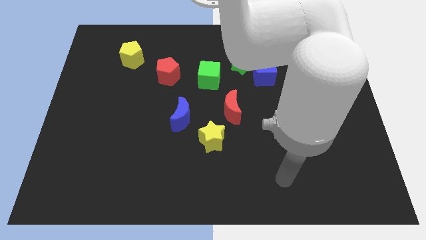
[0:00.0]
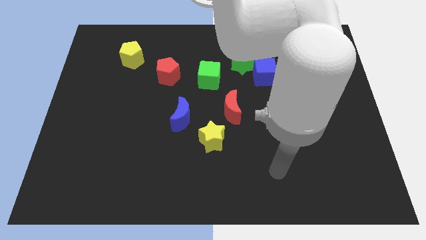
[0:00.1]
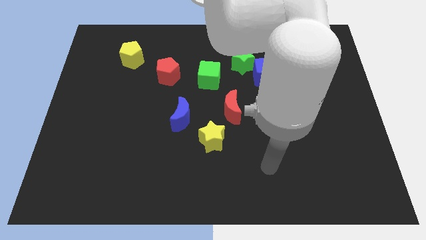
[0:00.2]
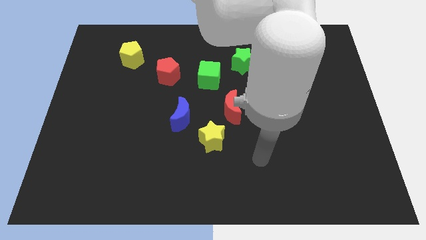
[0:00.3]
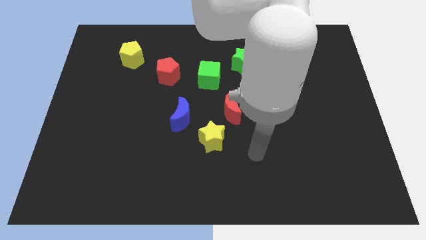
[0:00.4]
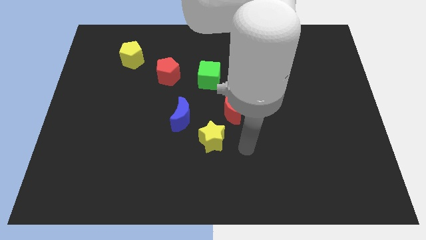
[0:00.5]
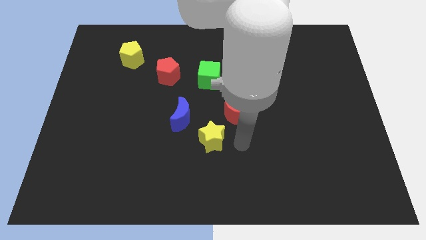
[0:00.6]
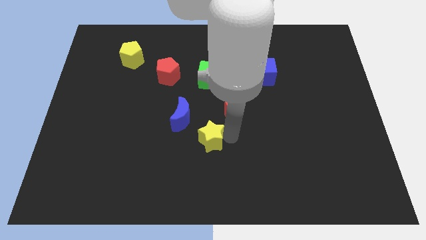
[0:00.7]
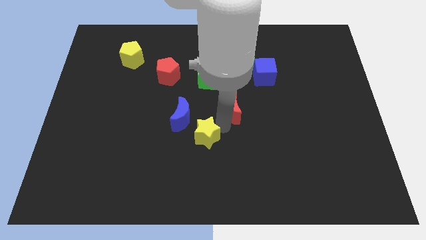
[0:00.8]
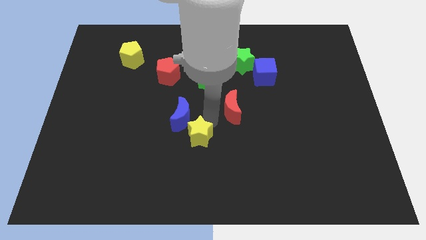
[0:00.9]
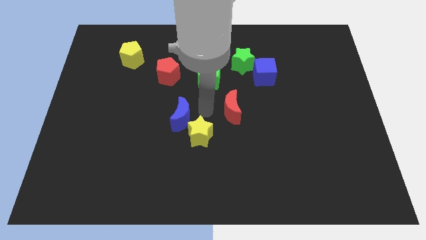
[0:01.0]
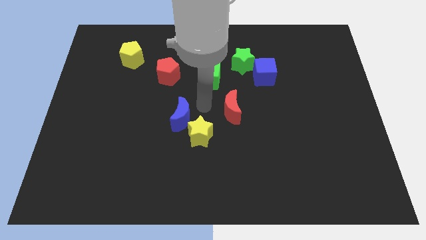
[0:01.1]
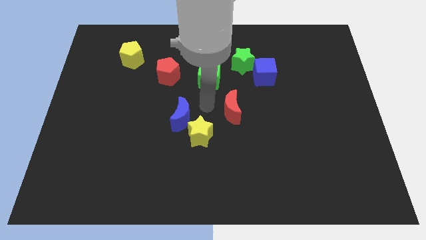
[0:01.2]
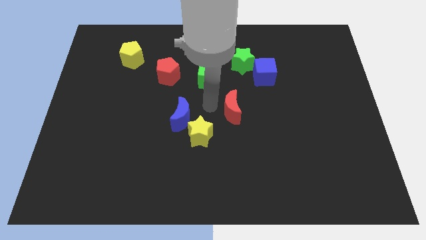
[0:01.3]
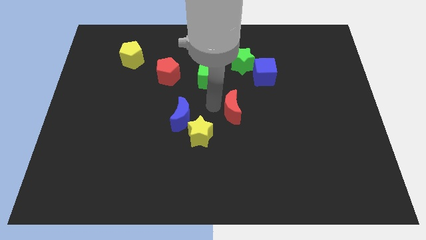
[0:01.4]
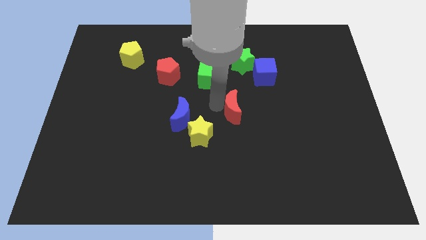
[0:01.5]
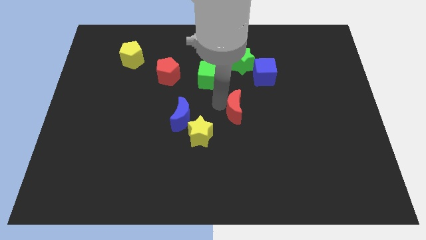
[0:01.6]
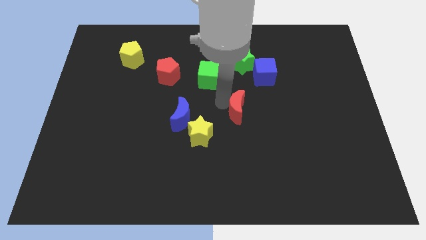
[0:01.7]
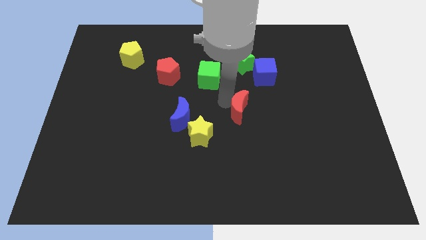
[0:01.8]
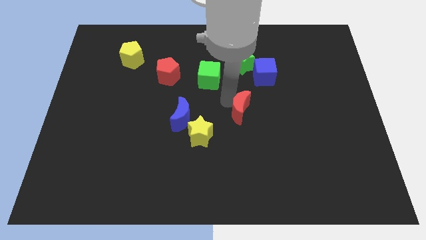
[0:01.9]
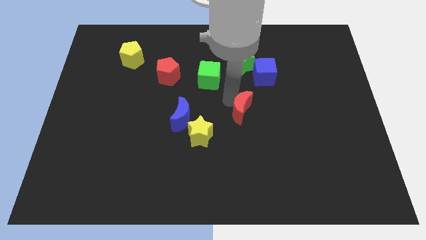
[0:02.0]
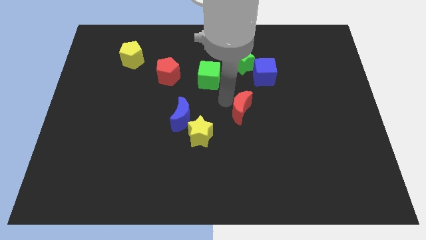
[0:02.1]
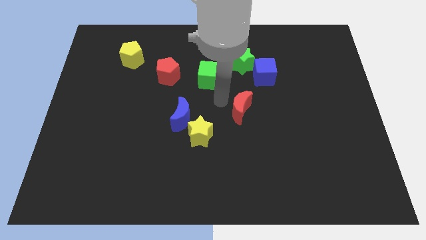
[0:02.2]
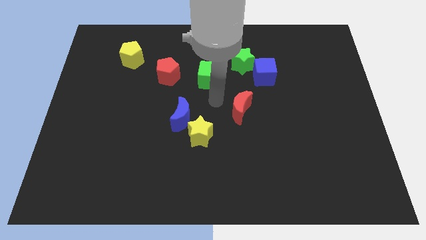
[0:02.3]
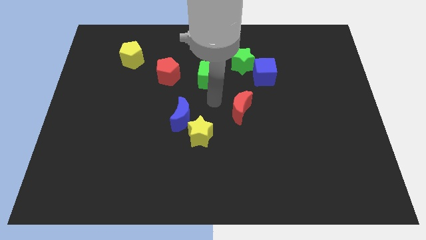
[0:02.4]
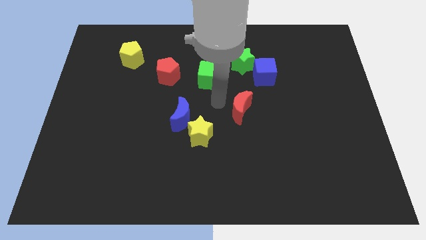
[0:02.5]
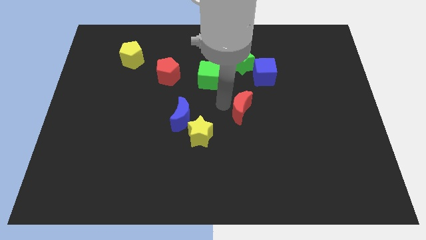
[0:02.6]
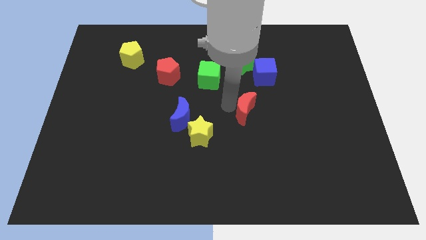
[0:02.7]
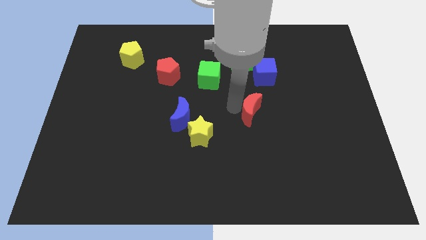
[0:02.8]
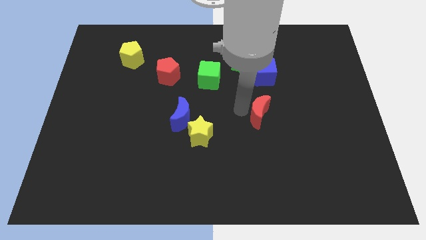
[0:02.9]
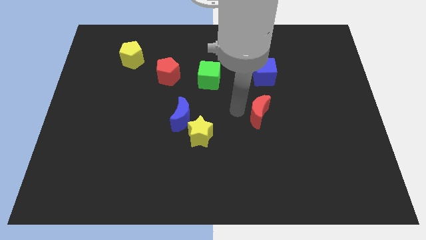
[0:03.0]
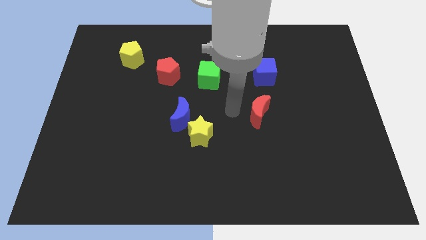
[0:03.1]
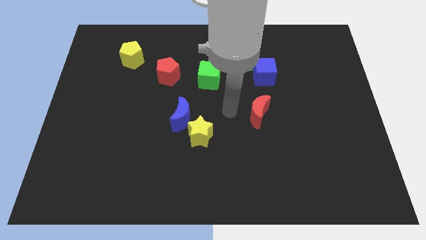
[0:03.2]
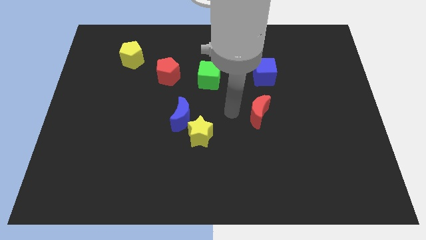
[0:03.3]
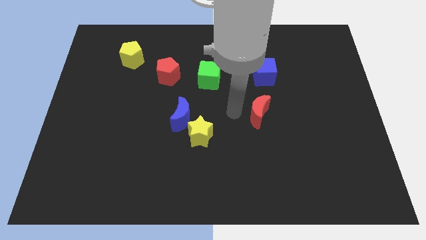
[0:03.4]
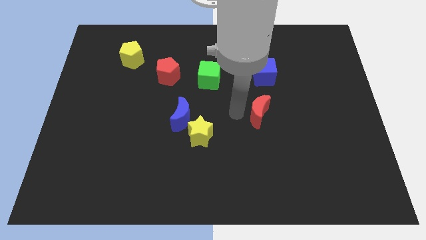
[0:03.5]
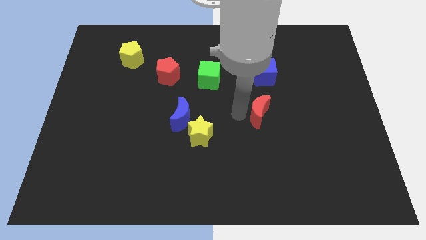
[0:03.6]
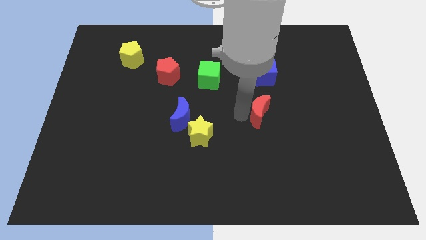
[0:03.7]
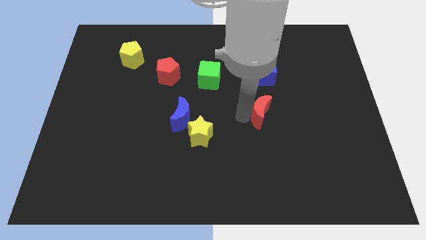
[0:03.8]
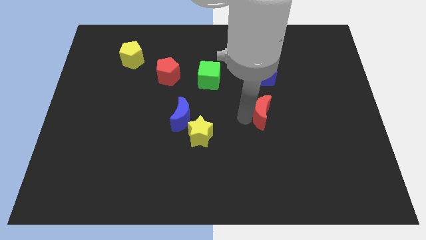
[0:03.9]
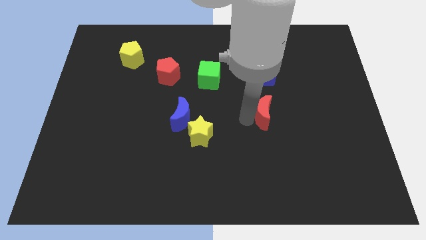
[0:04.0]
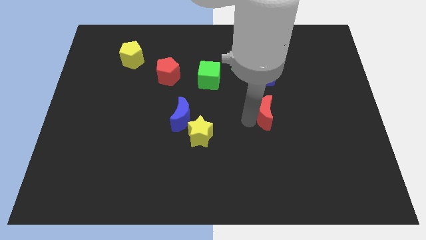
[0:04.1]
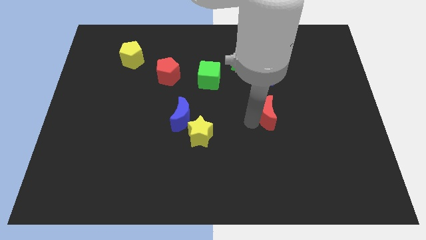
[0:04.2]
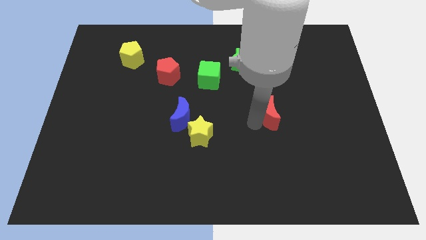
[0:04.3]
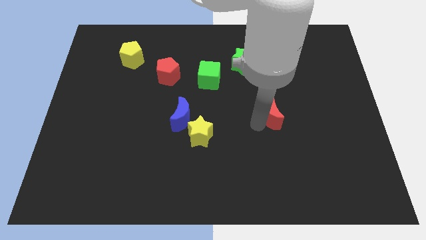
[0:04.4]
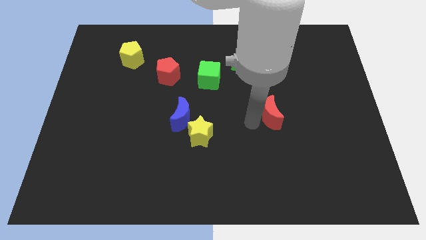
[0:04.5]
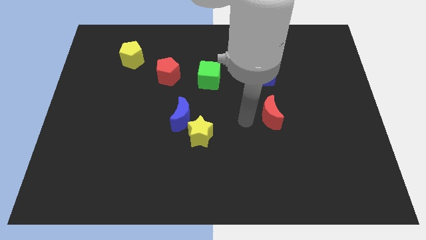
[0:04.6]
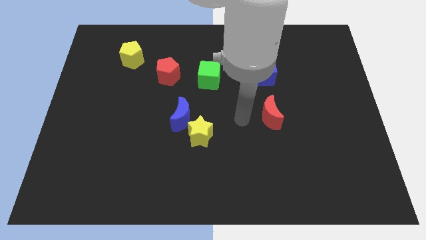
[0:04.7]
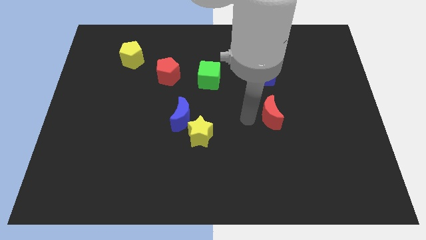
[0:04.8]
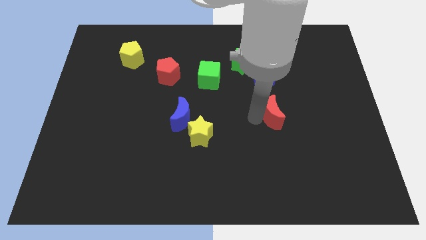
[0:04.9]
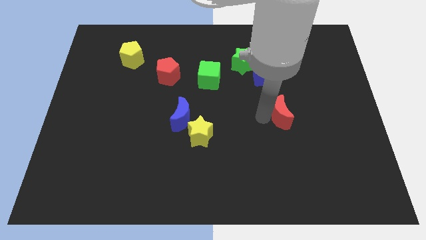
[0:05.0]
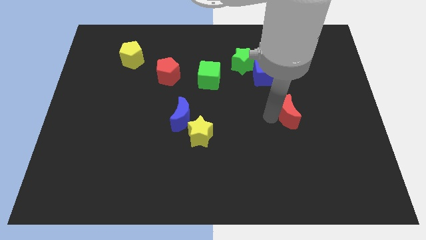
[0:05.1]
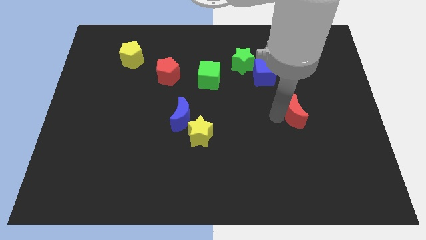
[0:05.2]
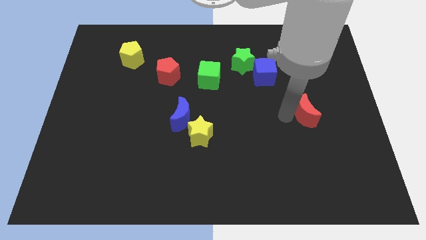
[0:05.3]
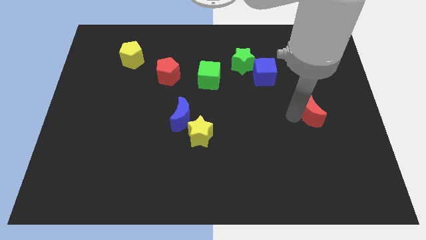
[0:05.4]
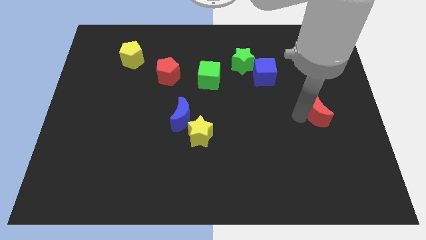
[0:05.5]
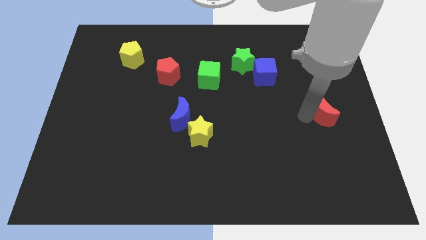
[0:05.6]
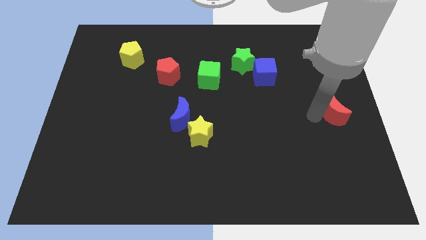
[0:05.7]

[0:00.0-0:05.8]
move the red moon to the center right
